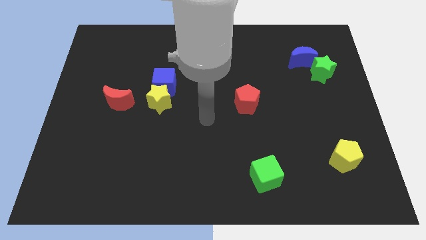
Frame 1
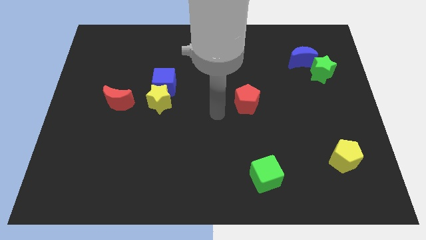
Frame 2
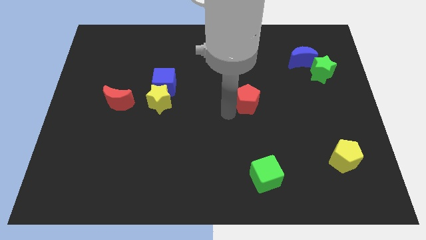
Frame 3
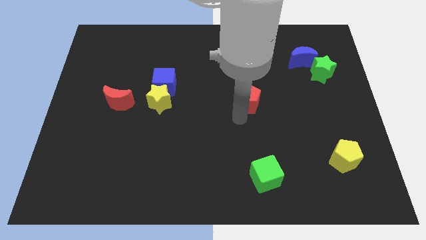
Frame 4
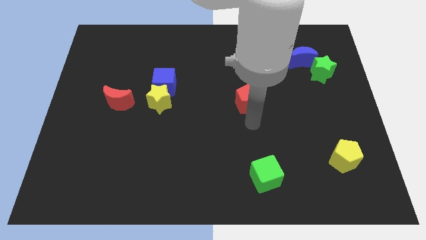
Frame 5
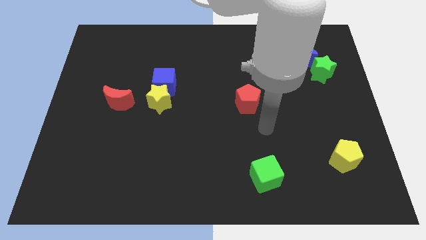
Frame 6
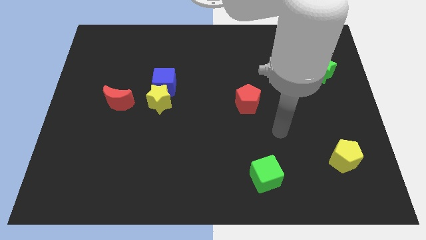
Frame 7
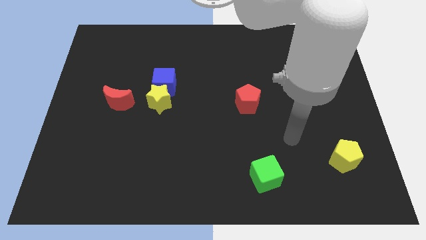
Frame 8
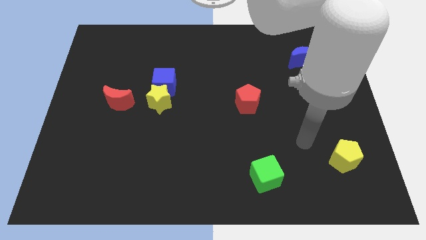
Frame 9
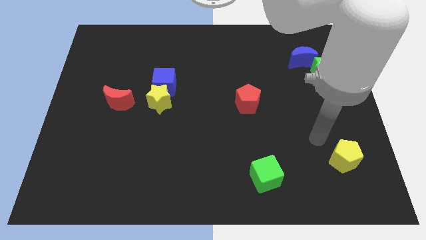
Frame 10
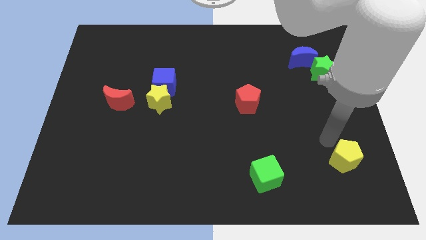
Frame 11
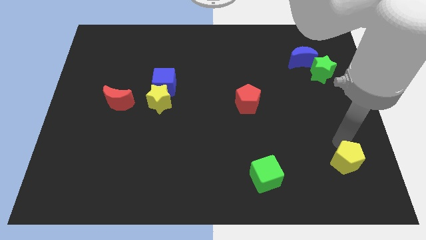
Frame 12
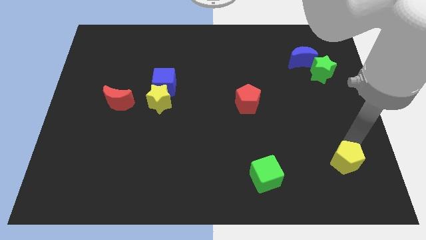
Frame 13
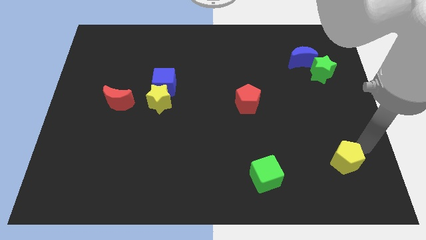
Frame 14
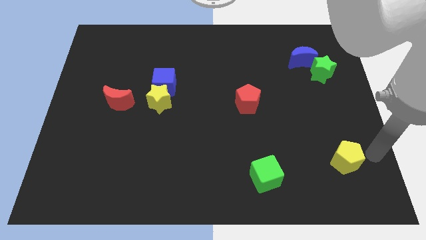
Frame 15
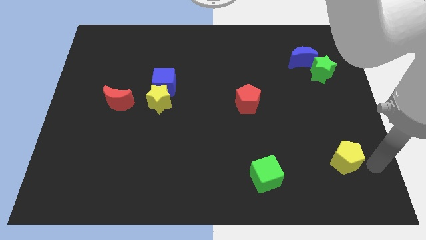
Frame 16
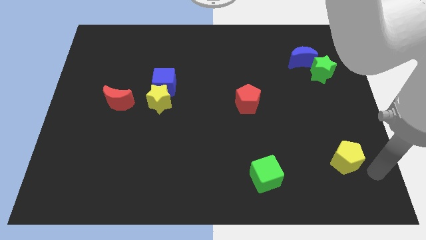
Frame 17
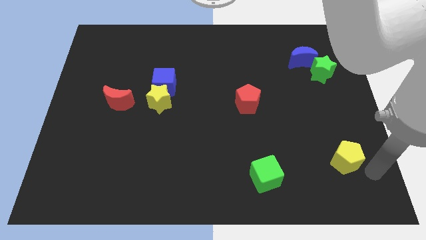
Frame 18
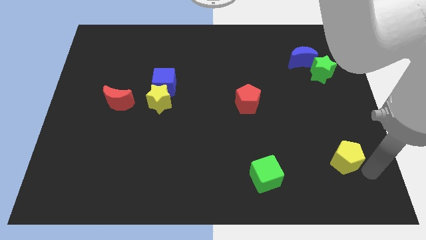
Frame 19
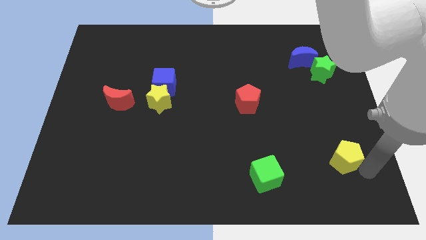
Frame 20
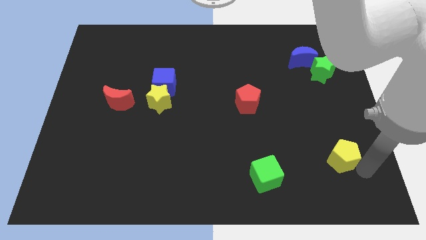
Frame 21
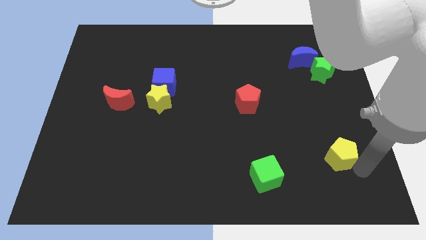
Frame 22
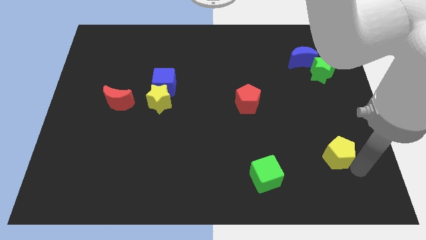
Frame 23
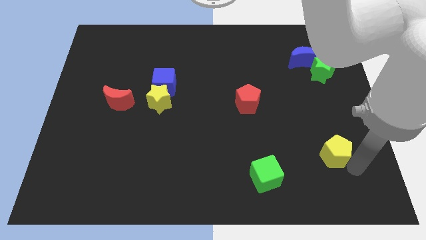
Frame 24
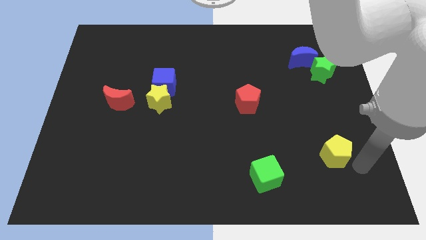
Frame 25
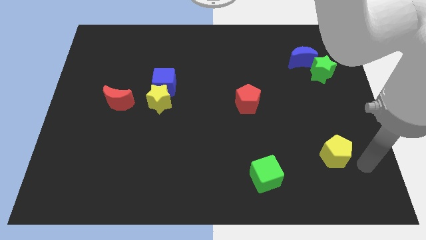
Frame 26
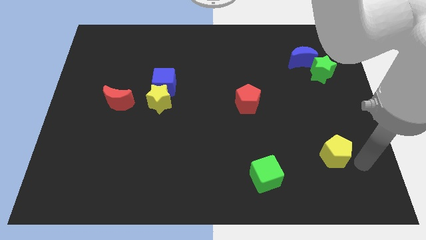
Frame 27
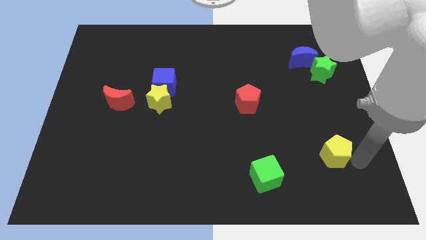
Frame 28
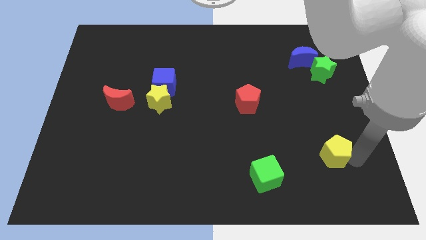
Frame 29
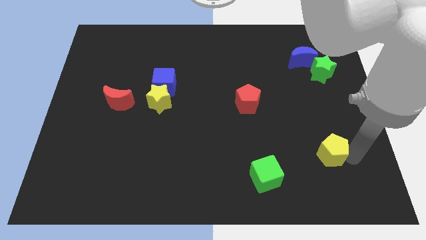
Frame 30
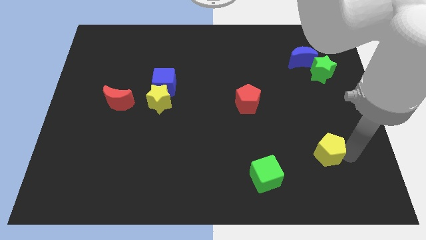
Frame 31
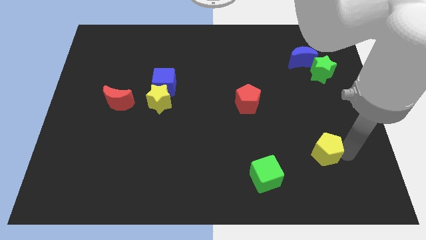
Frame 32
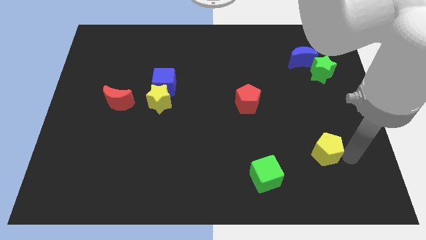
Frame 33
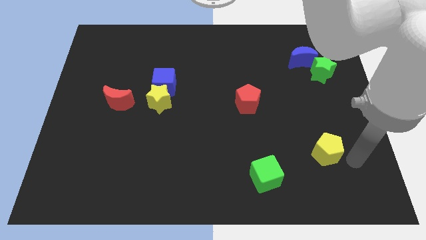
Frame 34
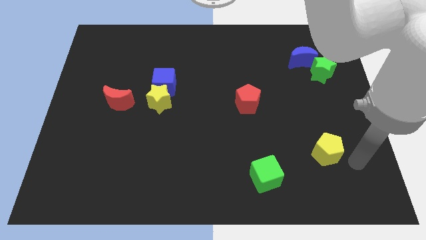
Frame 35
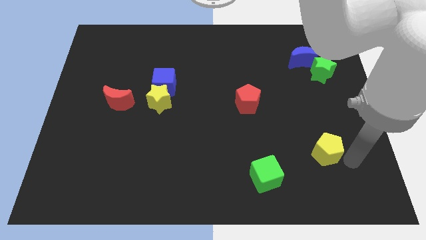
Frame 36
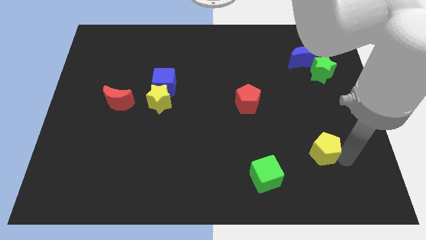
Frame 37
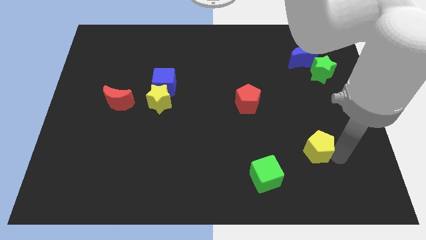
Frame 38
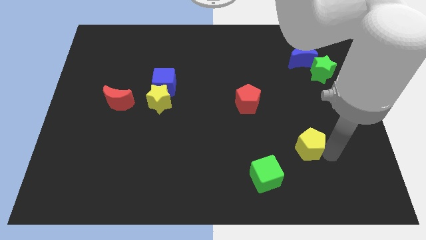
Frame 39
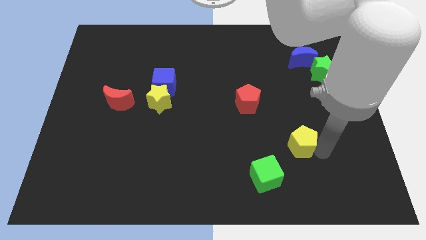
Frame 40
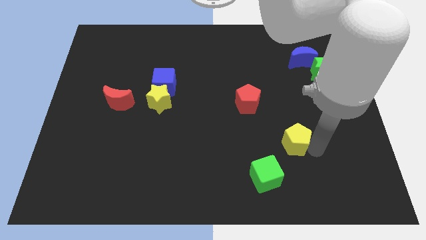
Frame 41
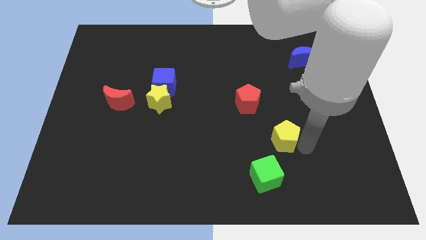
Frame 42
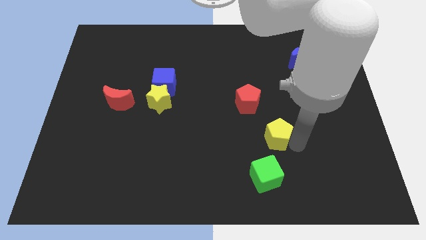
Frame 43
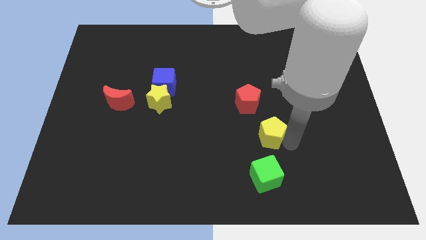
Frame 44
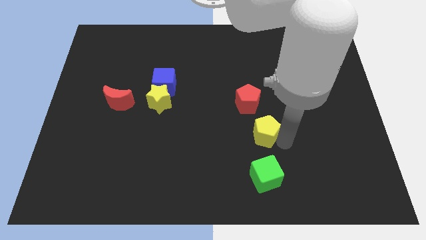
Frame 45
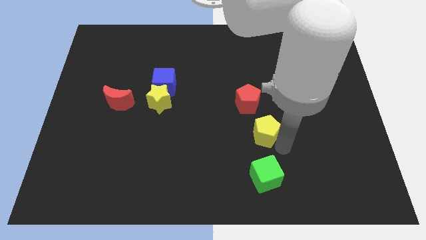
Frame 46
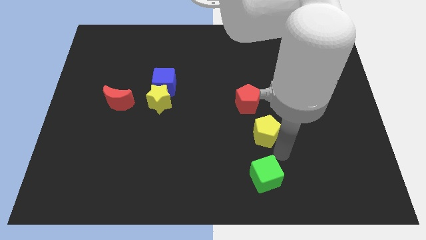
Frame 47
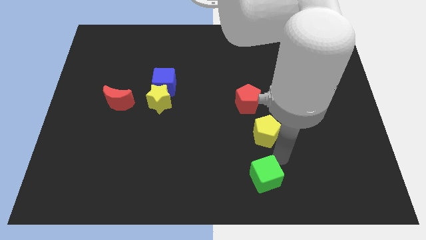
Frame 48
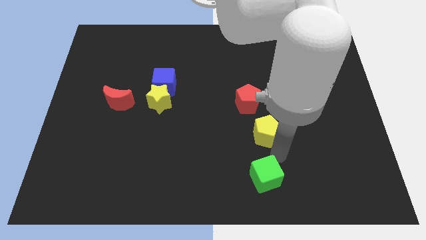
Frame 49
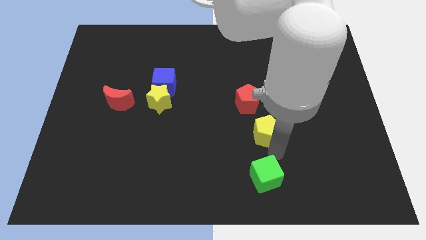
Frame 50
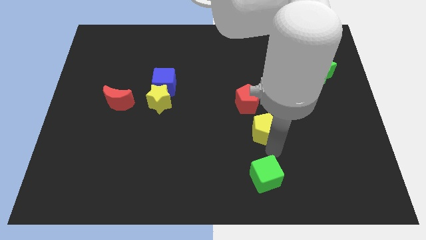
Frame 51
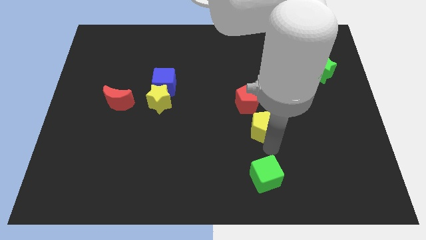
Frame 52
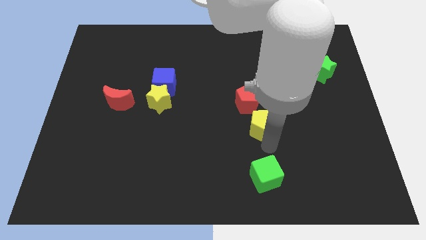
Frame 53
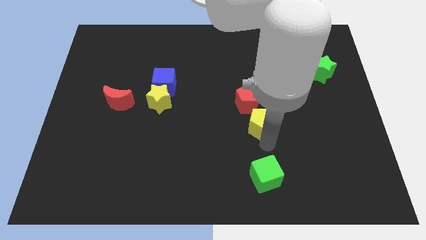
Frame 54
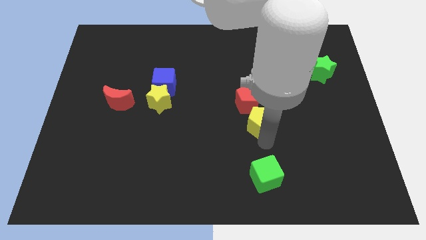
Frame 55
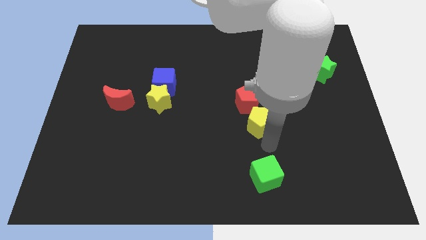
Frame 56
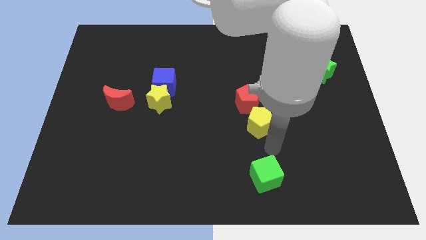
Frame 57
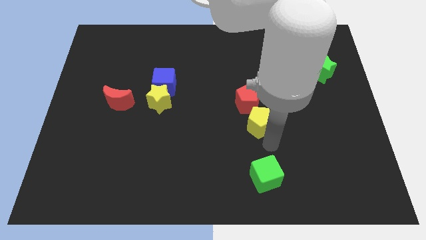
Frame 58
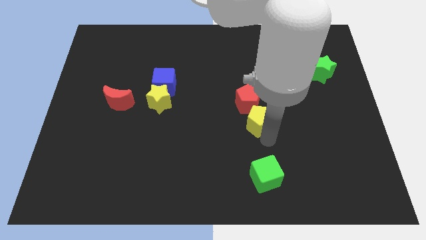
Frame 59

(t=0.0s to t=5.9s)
move the yellow pentagon next to the red pentagon

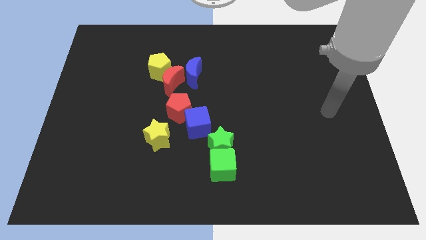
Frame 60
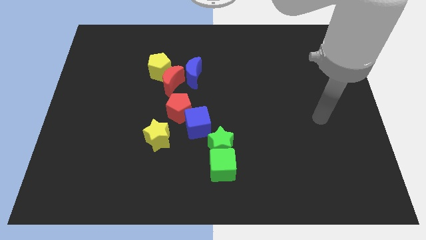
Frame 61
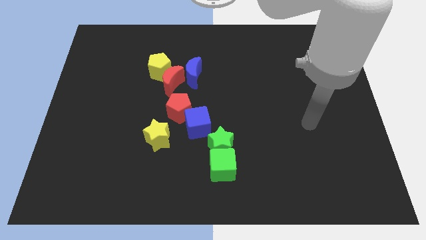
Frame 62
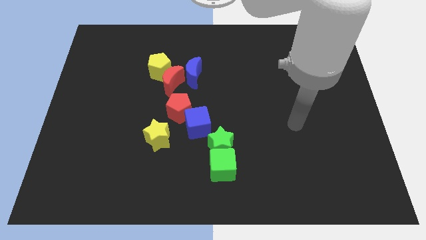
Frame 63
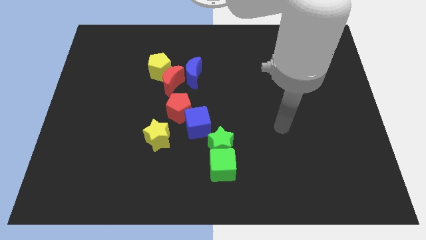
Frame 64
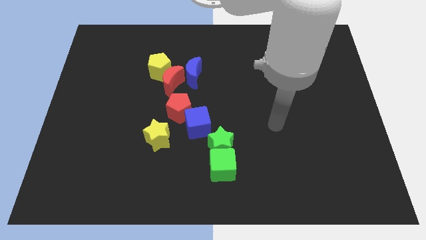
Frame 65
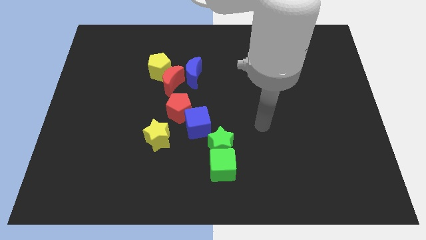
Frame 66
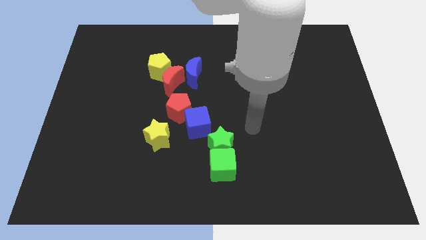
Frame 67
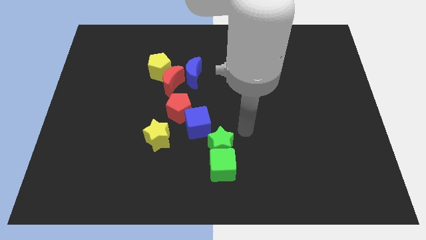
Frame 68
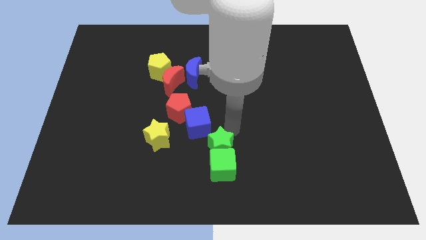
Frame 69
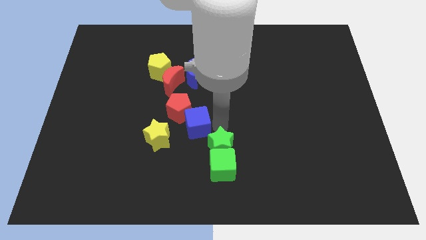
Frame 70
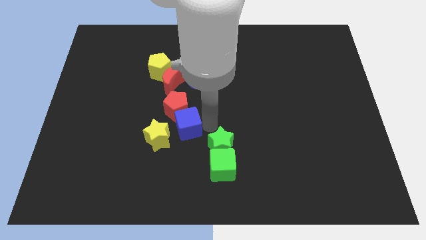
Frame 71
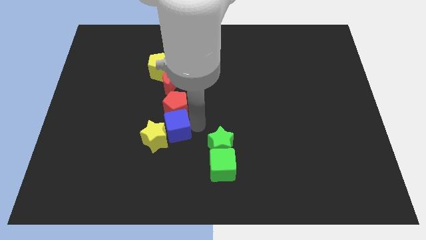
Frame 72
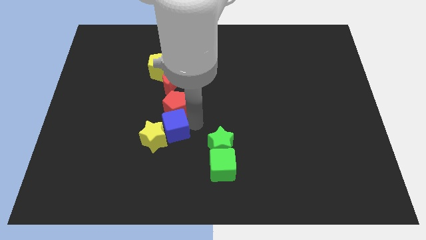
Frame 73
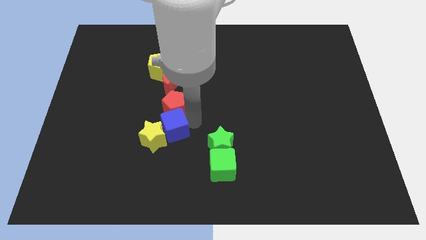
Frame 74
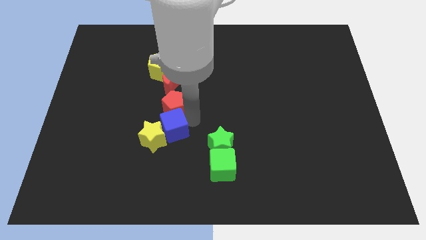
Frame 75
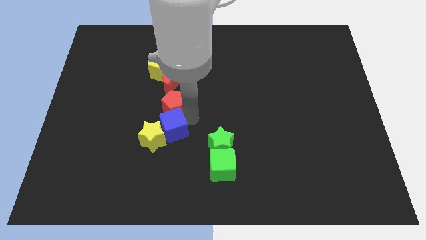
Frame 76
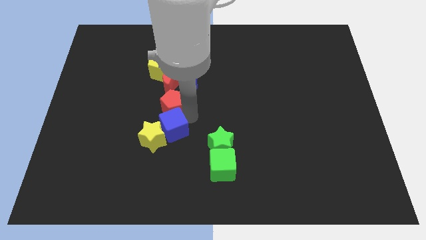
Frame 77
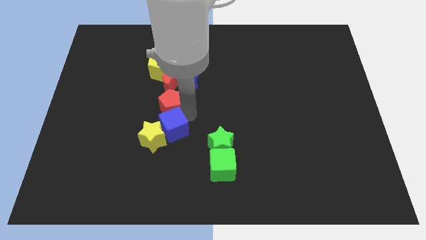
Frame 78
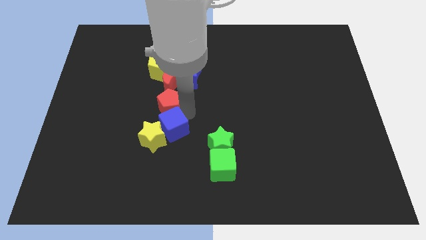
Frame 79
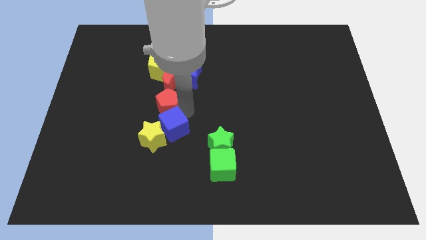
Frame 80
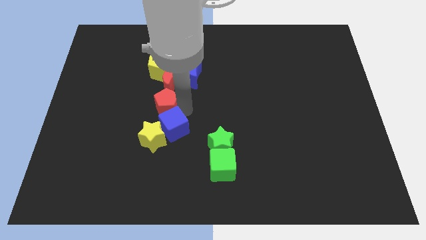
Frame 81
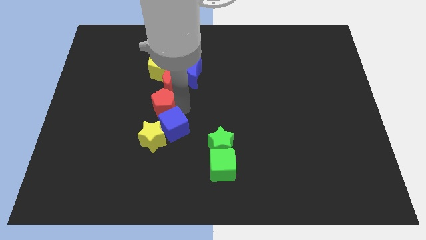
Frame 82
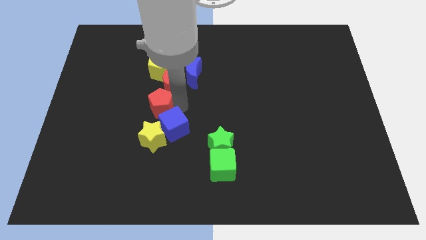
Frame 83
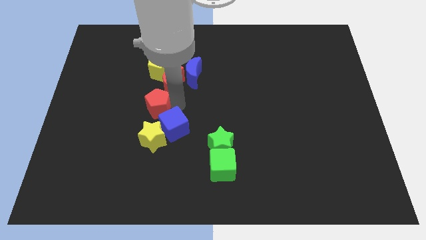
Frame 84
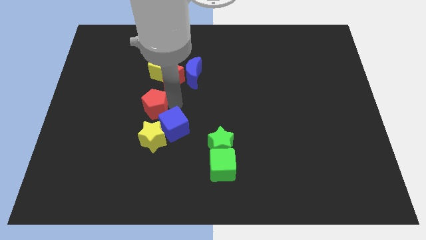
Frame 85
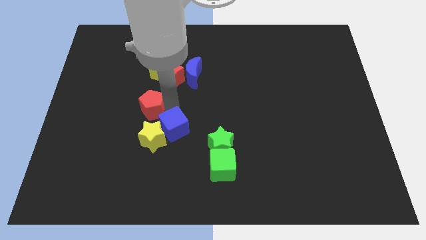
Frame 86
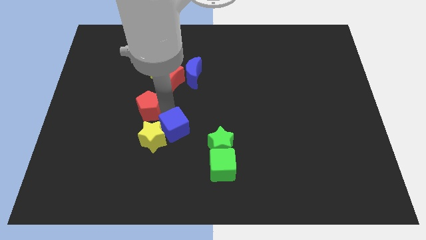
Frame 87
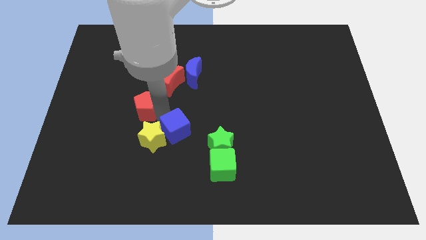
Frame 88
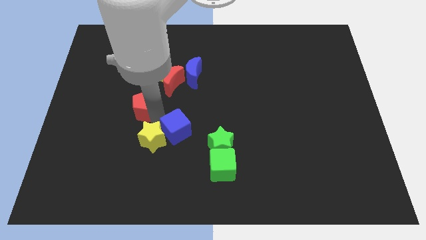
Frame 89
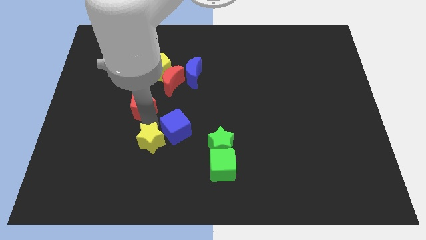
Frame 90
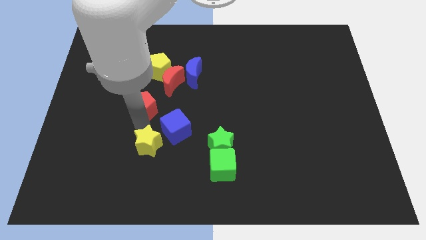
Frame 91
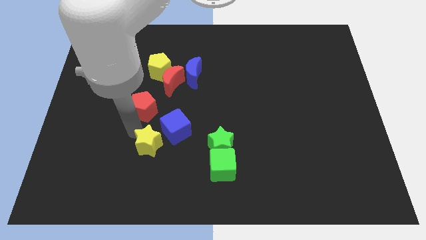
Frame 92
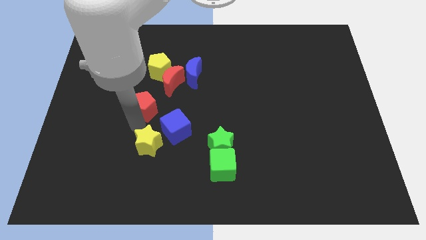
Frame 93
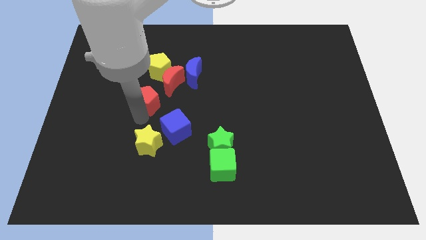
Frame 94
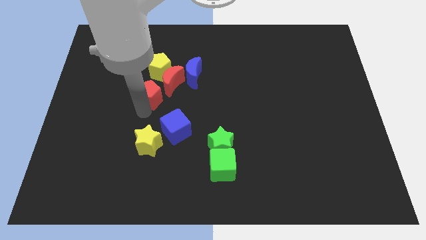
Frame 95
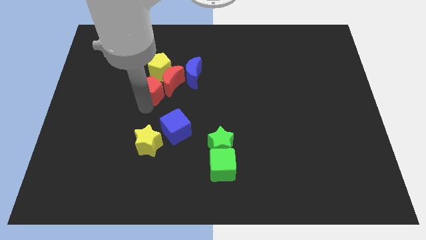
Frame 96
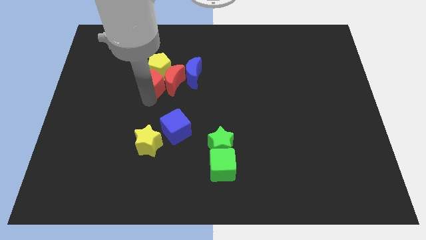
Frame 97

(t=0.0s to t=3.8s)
slide the red pentagon next to the yellow pentagon
